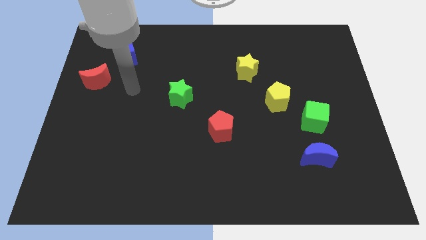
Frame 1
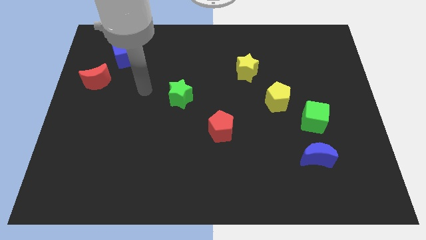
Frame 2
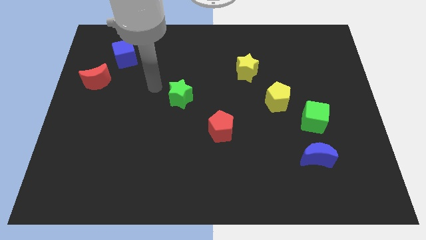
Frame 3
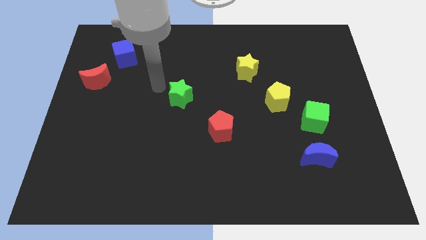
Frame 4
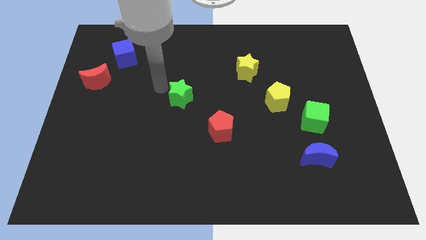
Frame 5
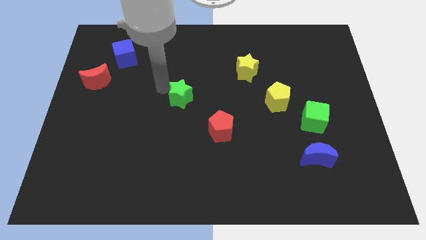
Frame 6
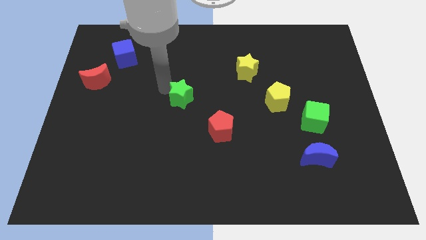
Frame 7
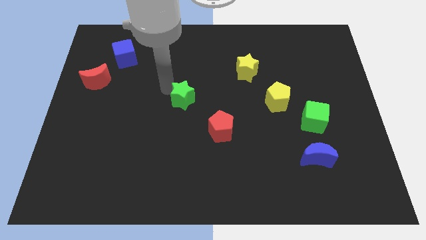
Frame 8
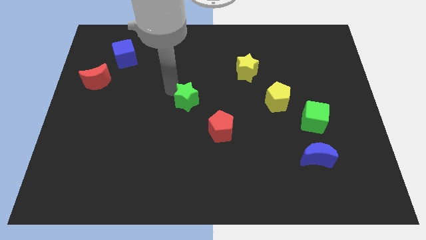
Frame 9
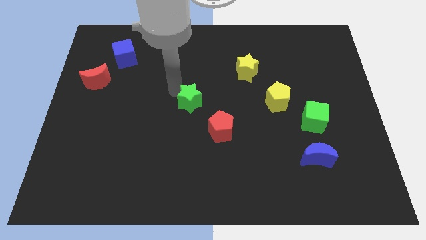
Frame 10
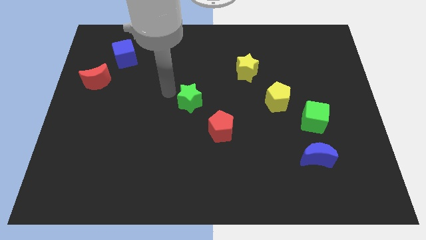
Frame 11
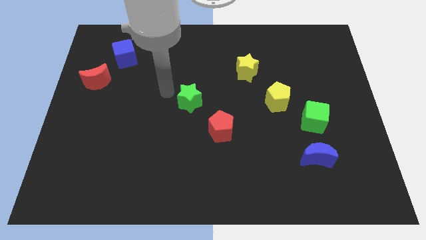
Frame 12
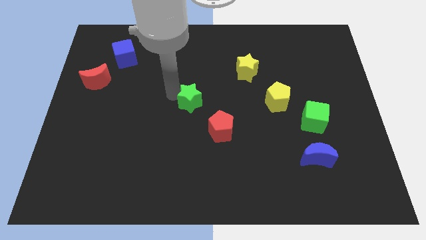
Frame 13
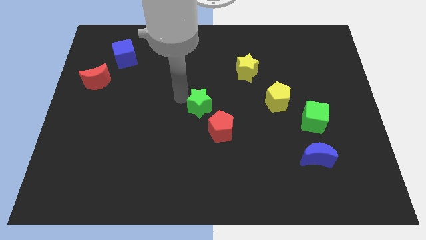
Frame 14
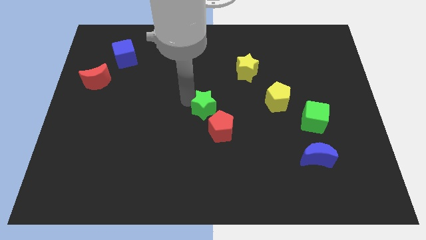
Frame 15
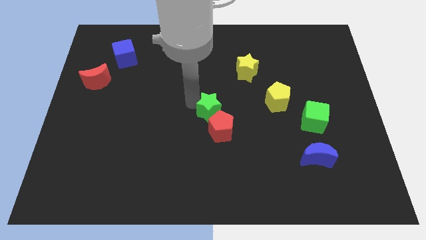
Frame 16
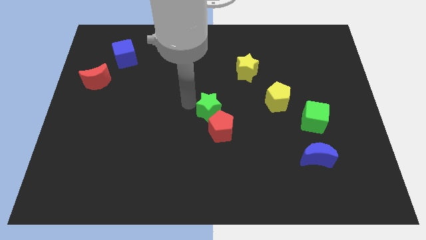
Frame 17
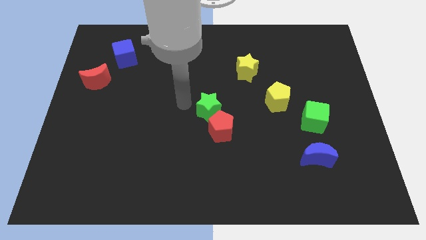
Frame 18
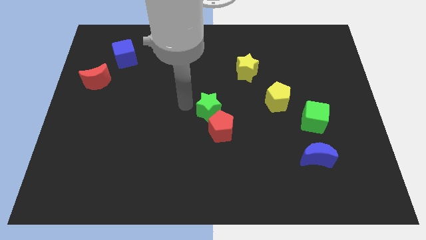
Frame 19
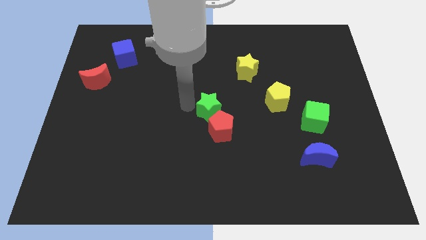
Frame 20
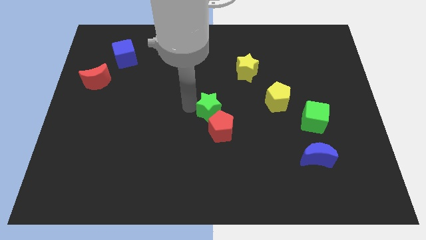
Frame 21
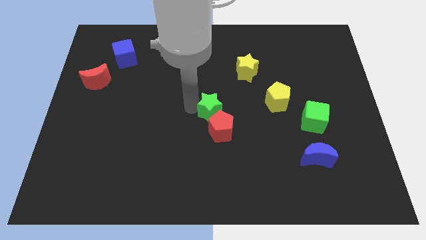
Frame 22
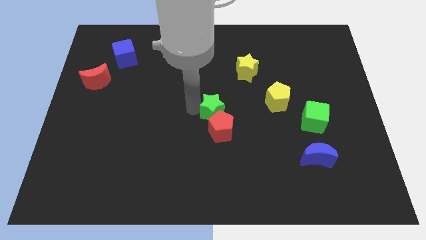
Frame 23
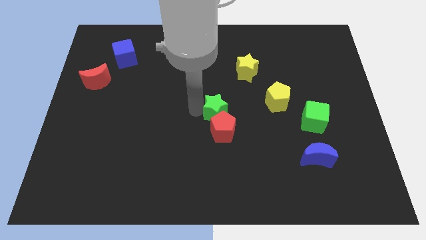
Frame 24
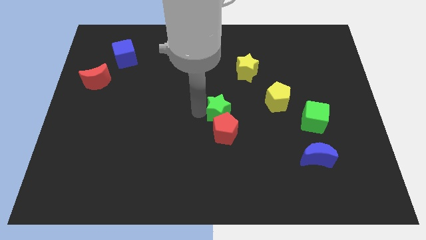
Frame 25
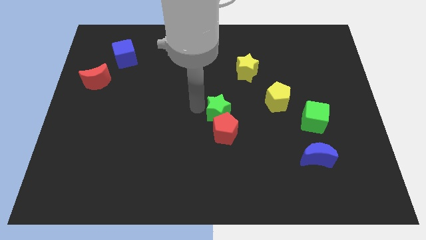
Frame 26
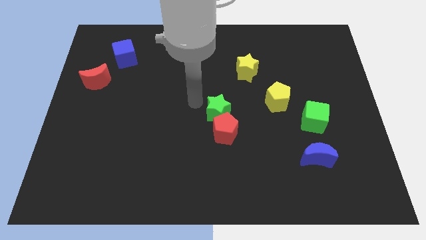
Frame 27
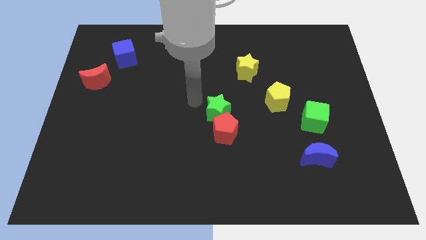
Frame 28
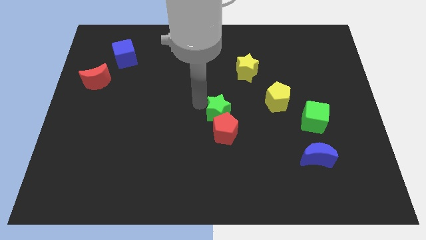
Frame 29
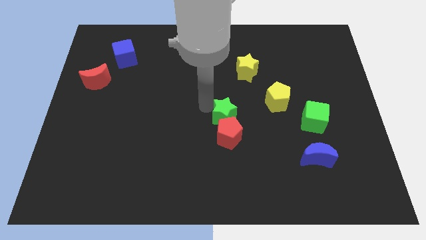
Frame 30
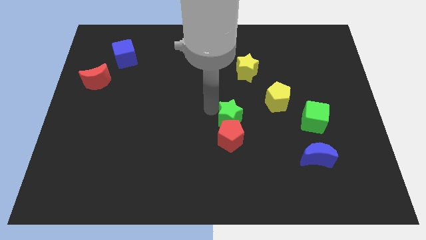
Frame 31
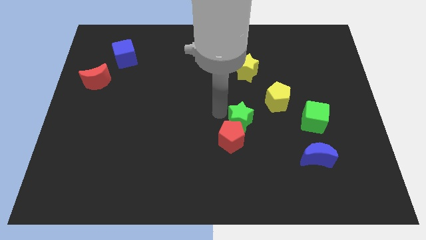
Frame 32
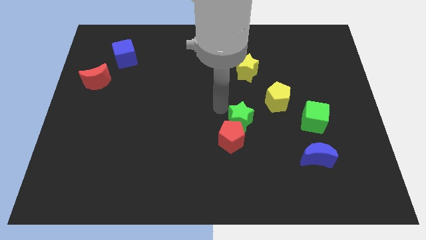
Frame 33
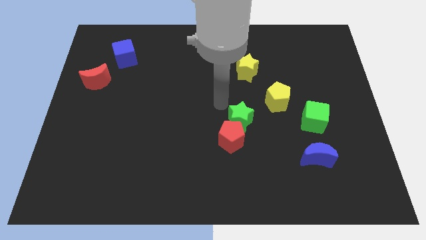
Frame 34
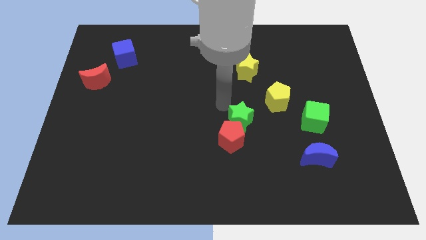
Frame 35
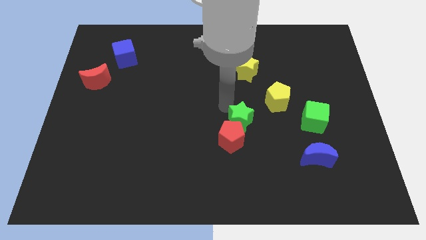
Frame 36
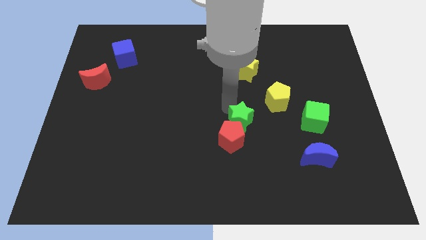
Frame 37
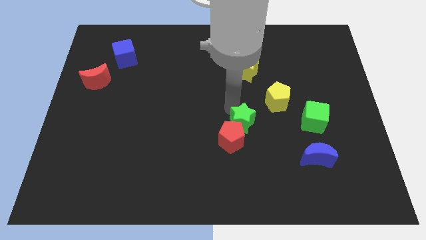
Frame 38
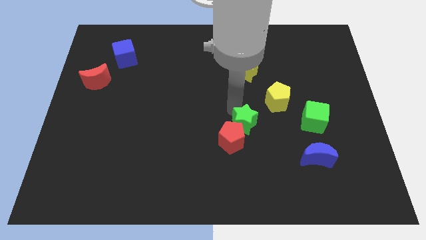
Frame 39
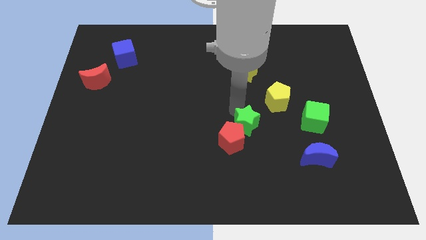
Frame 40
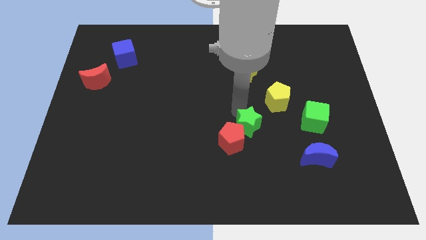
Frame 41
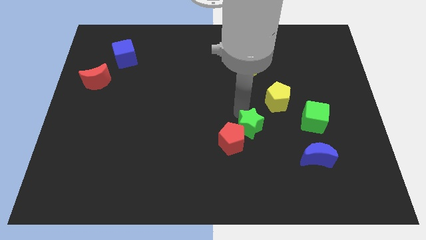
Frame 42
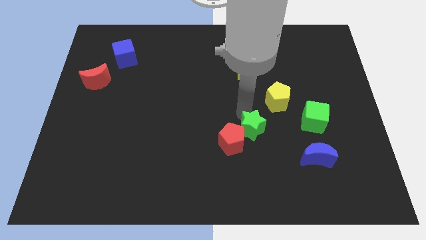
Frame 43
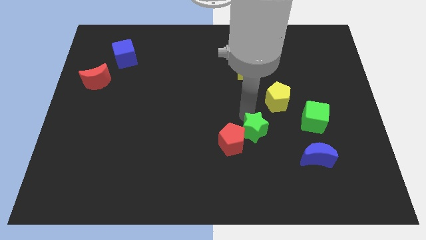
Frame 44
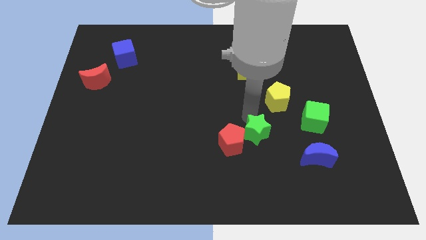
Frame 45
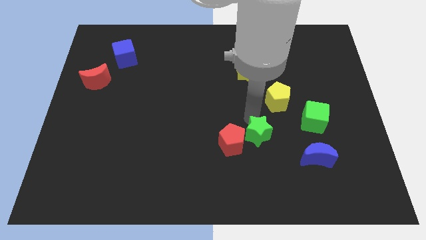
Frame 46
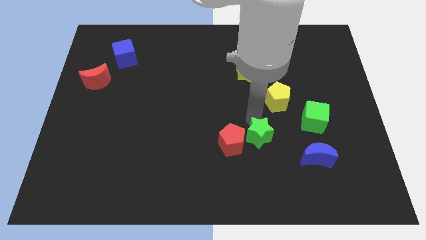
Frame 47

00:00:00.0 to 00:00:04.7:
move the green star diagonally downwards and right

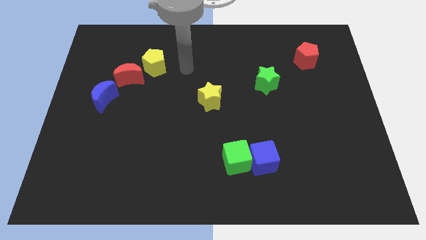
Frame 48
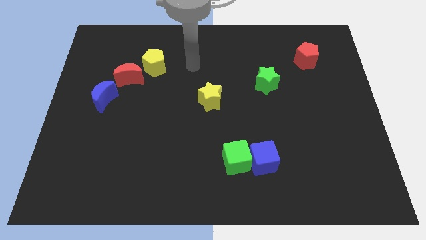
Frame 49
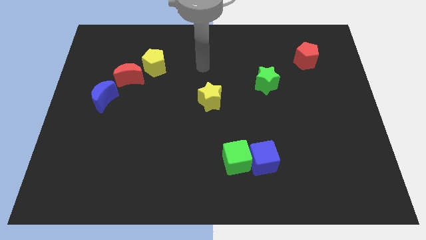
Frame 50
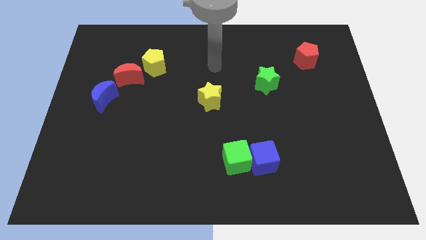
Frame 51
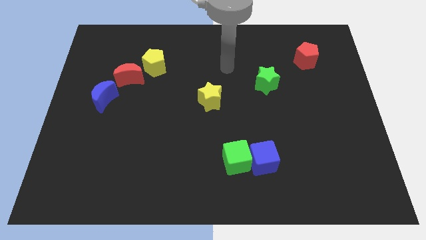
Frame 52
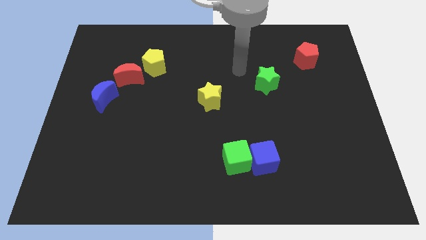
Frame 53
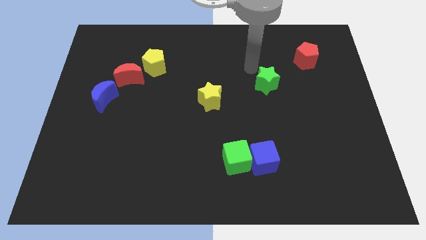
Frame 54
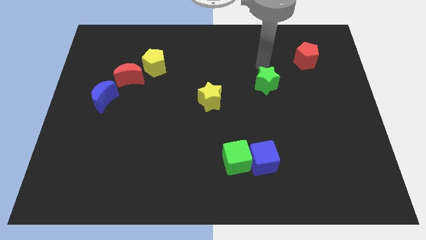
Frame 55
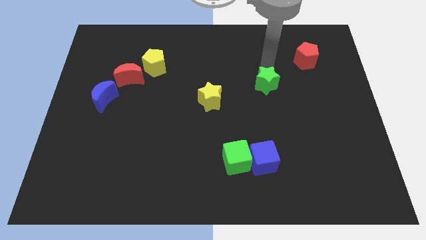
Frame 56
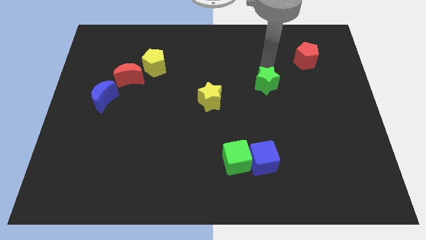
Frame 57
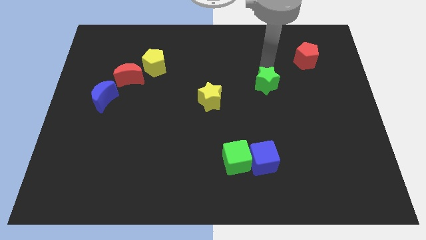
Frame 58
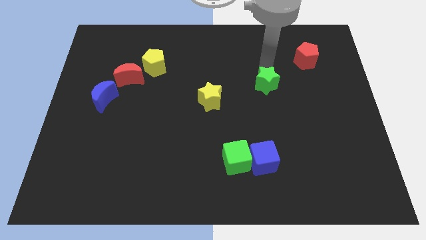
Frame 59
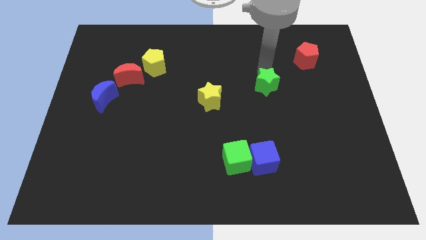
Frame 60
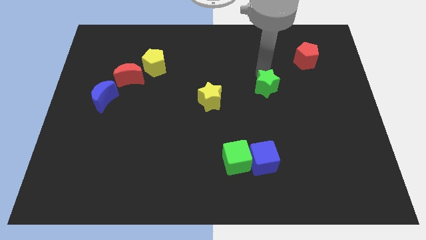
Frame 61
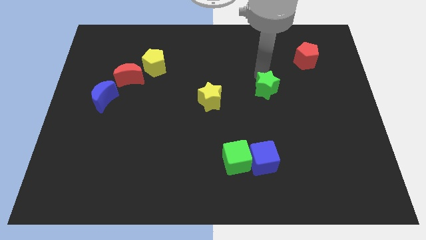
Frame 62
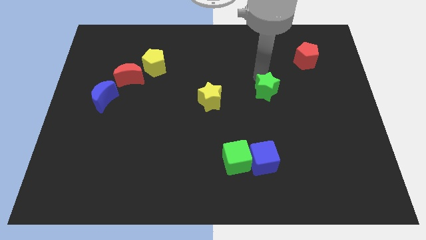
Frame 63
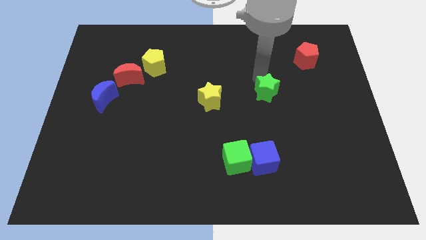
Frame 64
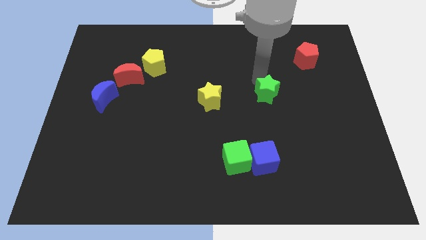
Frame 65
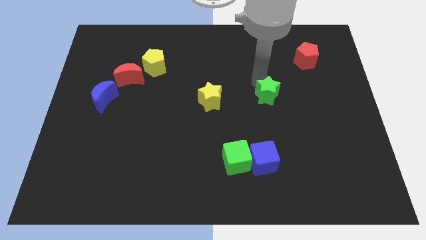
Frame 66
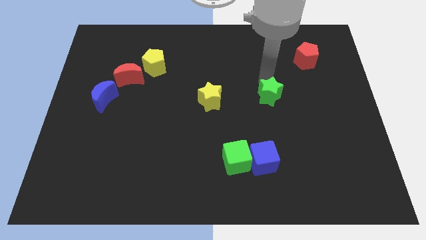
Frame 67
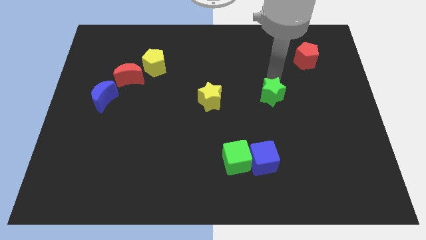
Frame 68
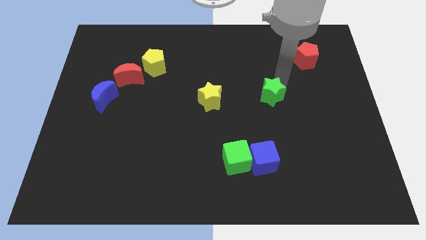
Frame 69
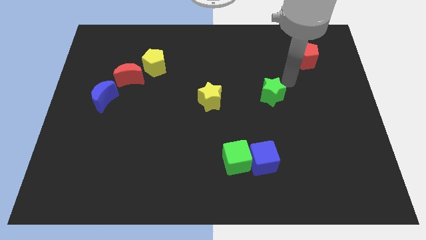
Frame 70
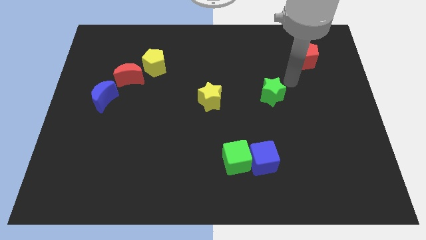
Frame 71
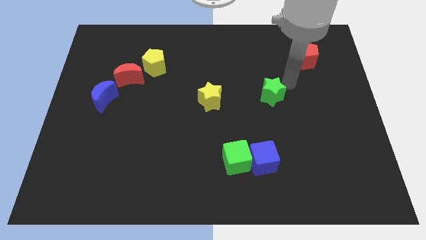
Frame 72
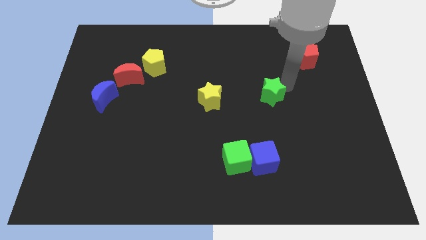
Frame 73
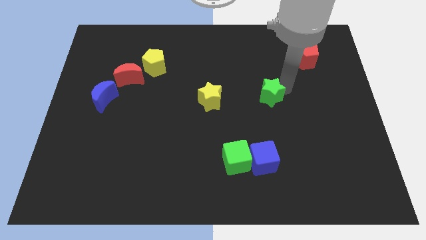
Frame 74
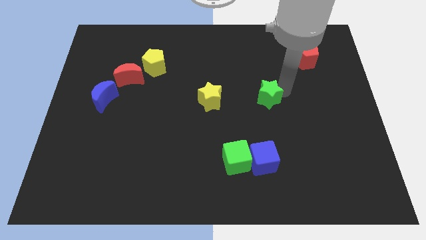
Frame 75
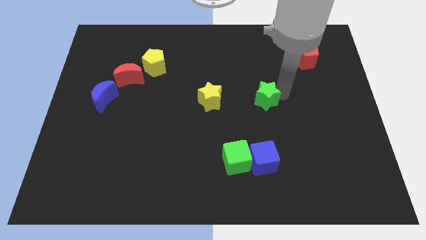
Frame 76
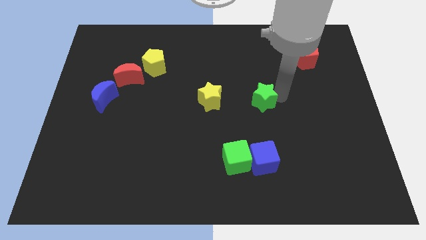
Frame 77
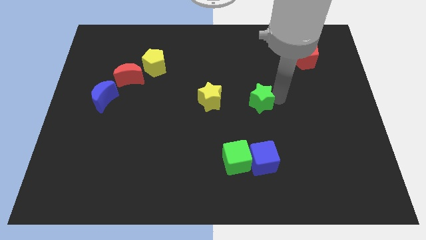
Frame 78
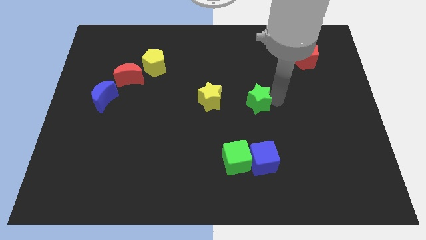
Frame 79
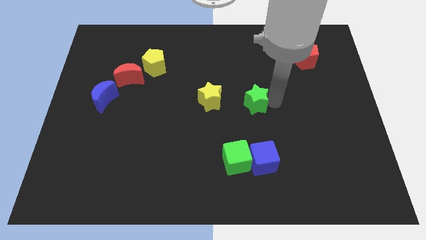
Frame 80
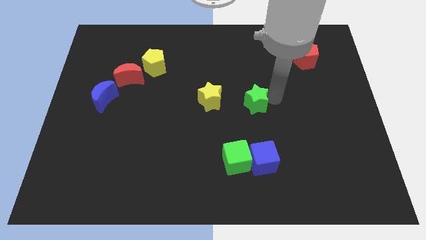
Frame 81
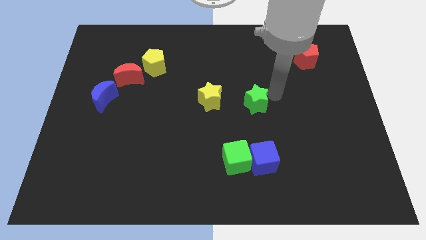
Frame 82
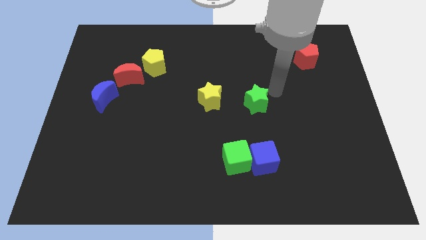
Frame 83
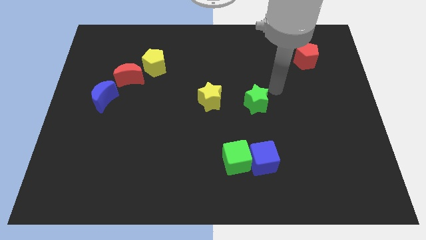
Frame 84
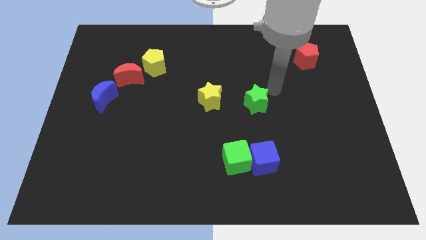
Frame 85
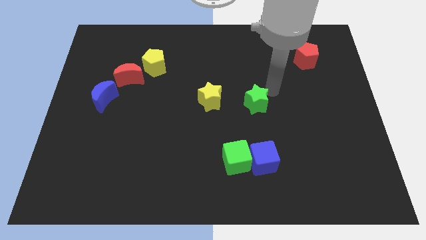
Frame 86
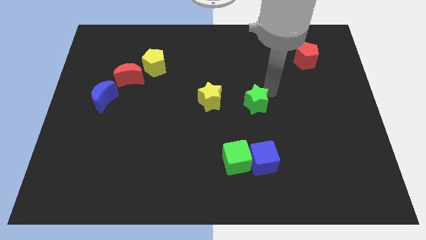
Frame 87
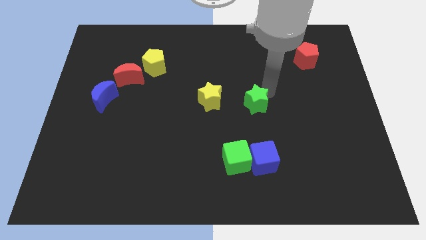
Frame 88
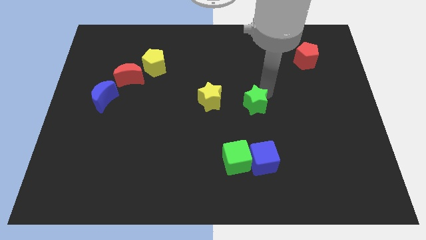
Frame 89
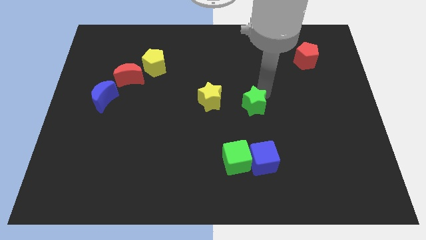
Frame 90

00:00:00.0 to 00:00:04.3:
move the green star diagonally downwards and left a little bit
